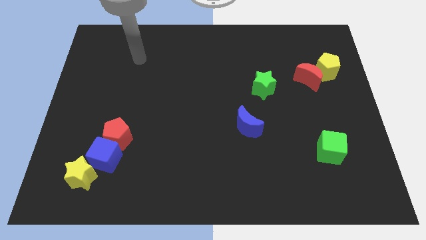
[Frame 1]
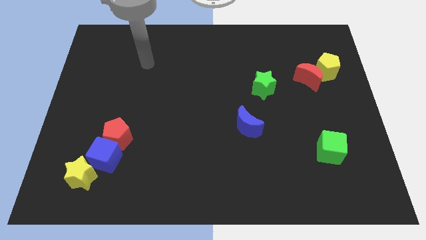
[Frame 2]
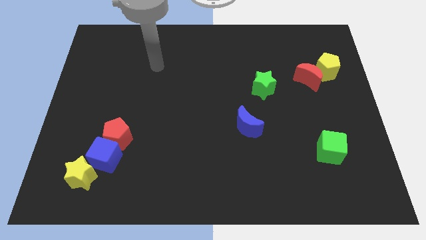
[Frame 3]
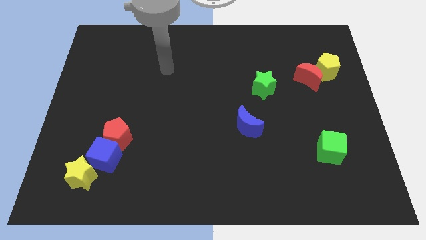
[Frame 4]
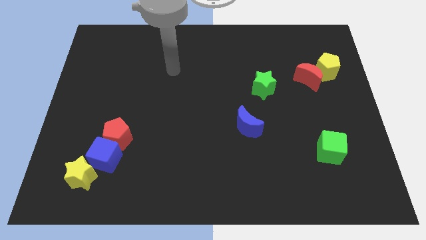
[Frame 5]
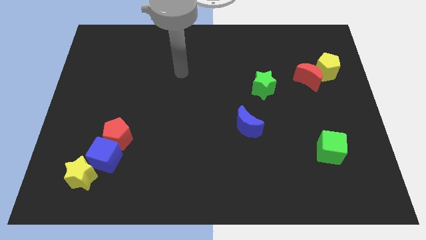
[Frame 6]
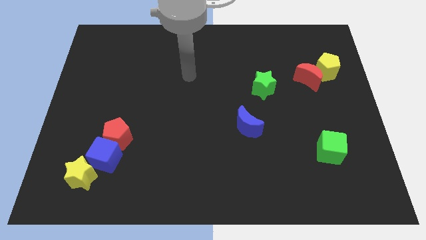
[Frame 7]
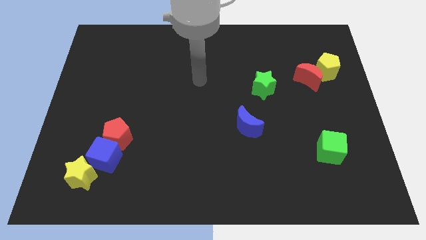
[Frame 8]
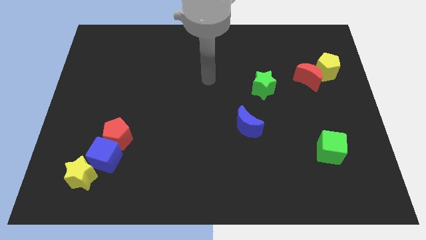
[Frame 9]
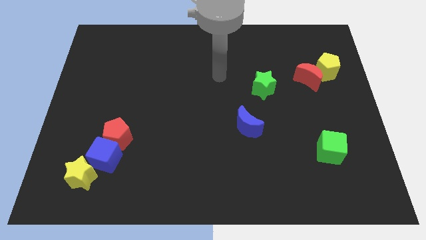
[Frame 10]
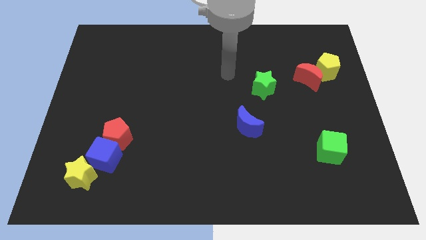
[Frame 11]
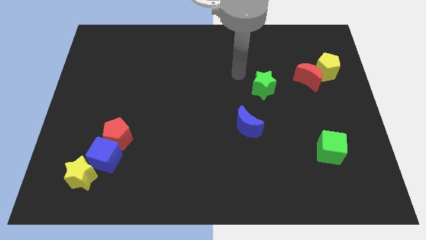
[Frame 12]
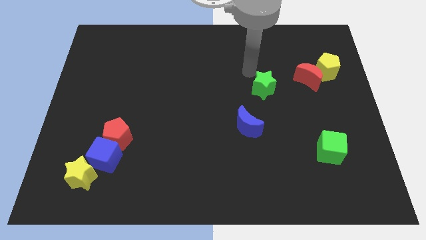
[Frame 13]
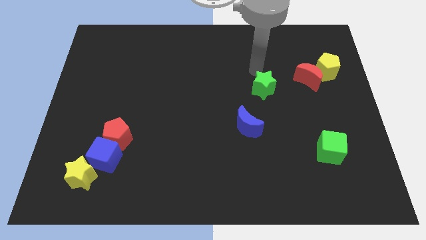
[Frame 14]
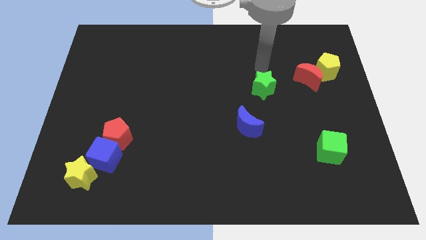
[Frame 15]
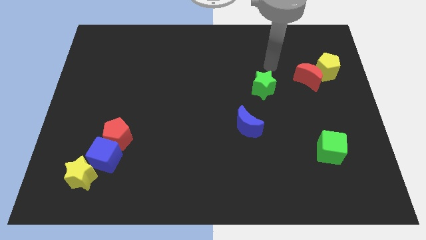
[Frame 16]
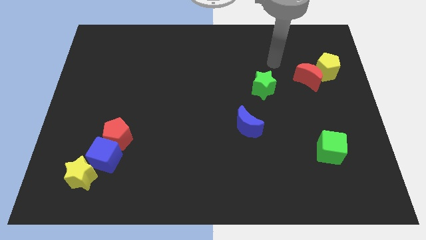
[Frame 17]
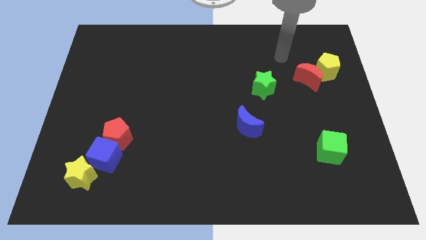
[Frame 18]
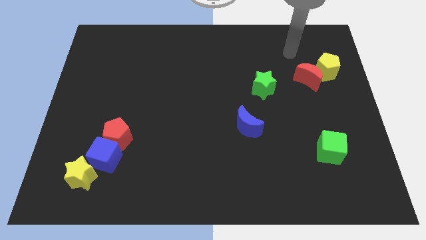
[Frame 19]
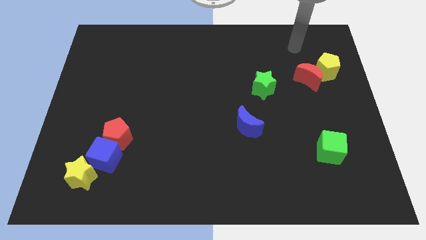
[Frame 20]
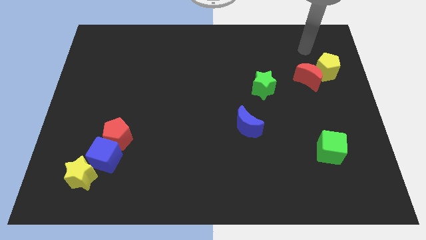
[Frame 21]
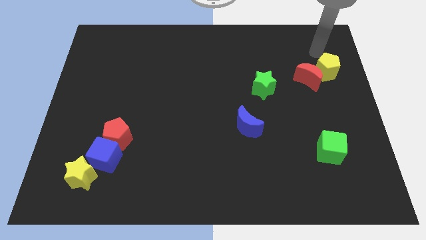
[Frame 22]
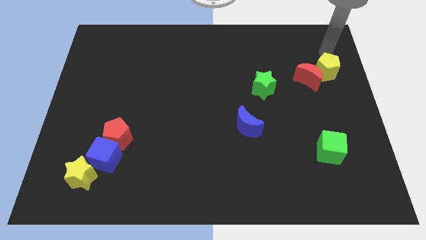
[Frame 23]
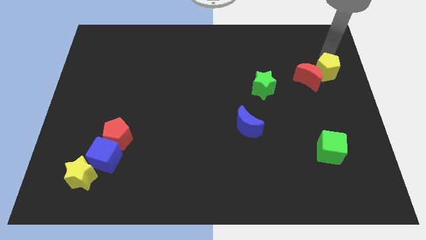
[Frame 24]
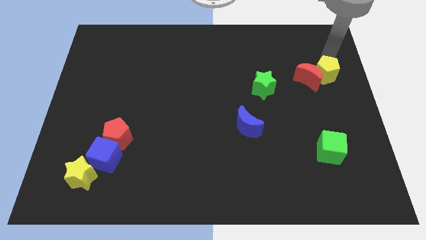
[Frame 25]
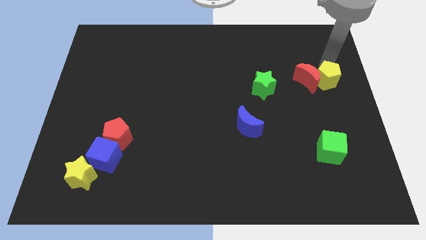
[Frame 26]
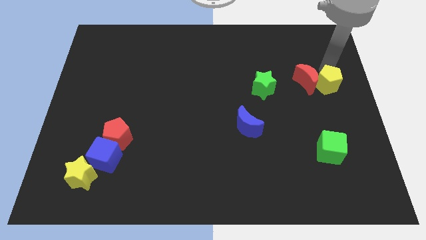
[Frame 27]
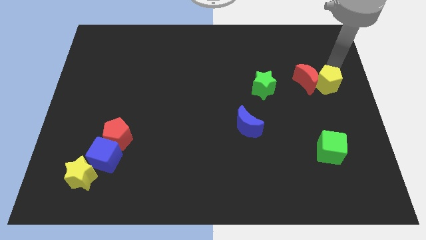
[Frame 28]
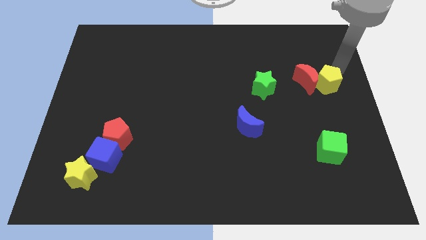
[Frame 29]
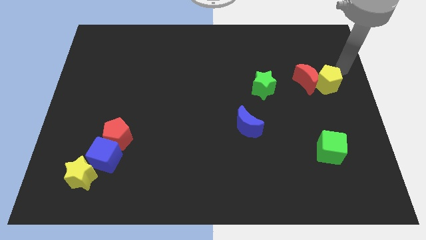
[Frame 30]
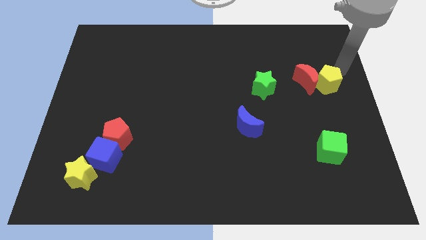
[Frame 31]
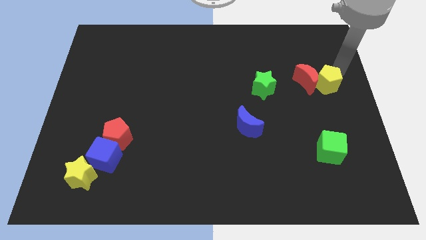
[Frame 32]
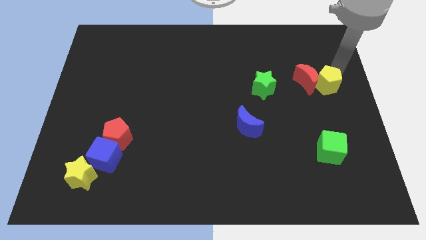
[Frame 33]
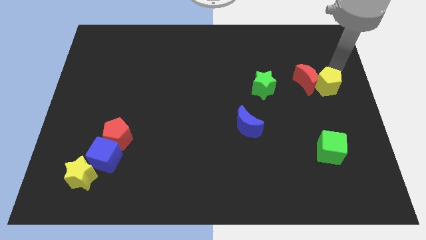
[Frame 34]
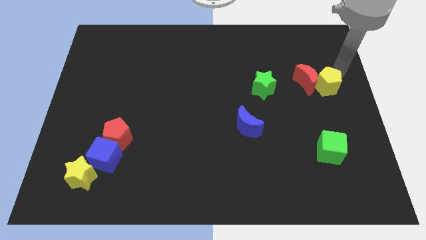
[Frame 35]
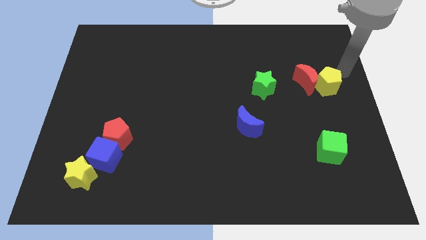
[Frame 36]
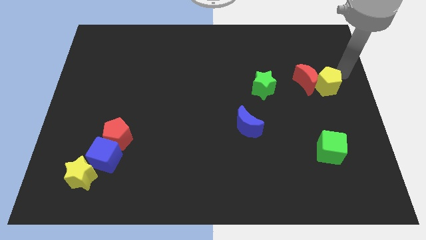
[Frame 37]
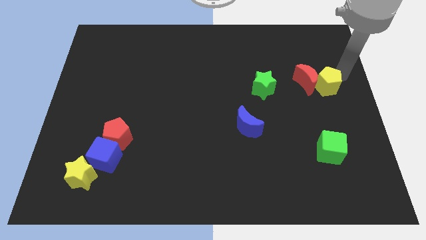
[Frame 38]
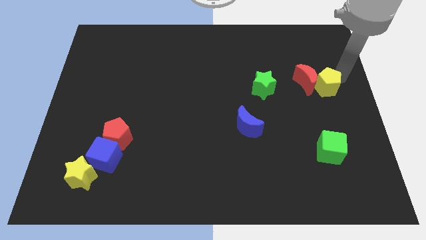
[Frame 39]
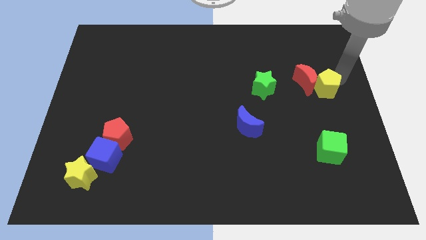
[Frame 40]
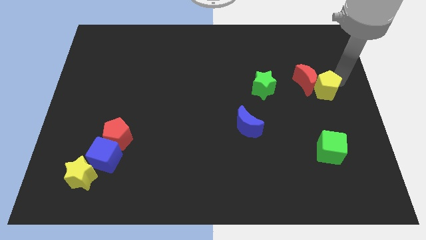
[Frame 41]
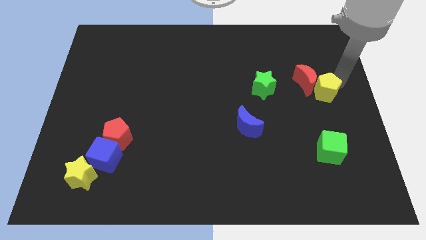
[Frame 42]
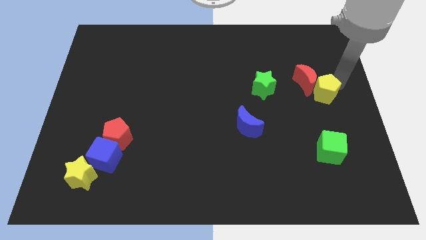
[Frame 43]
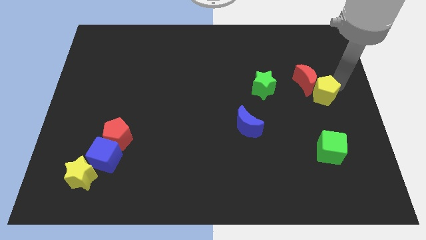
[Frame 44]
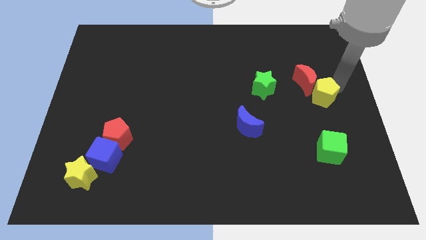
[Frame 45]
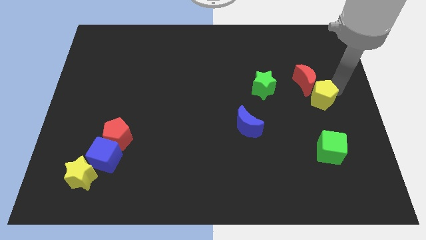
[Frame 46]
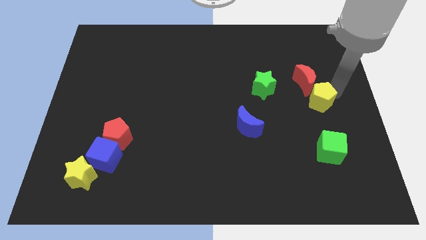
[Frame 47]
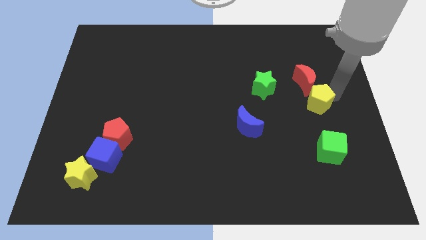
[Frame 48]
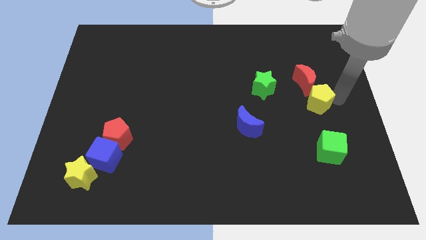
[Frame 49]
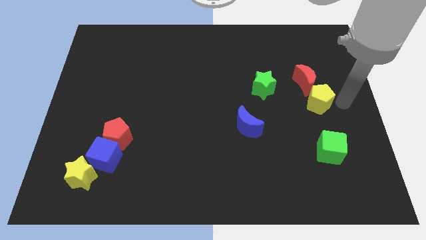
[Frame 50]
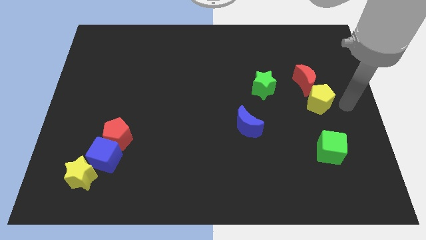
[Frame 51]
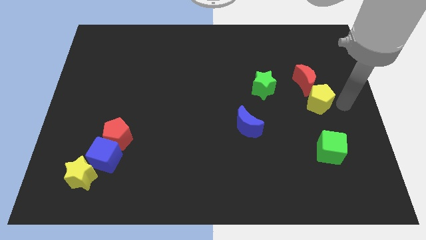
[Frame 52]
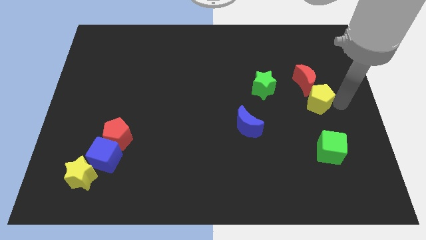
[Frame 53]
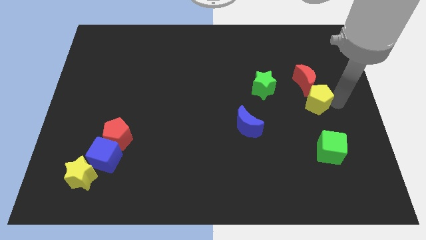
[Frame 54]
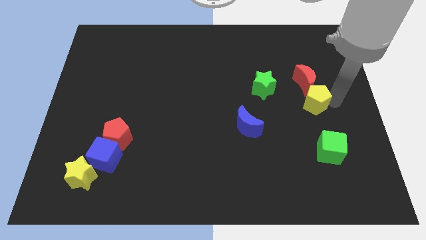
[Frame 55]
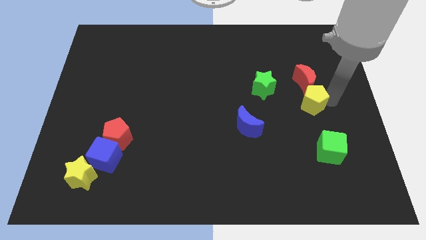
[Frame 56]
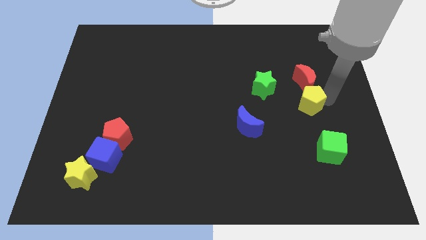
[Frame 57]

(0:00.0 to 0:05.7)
put the yellow pentagon to the bottom left of the red moon
